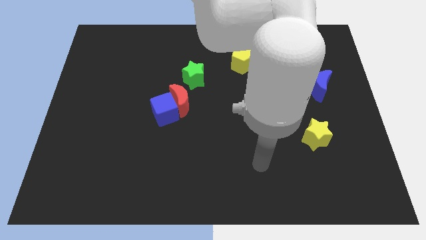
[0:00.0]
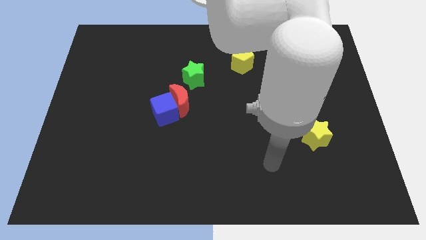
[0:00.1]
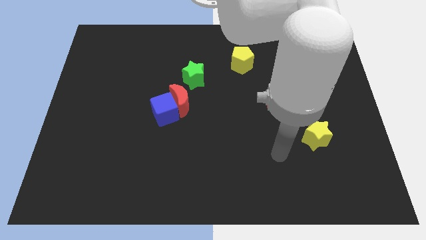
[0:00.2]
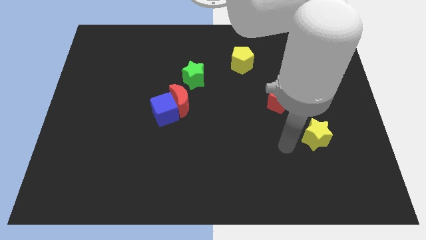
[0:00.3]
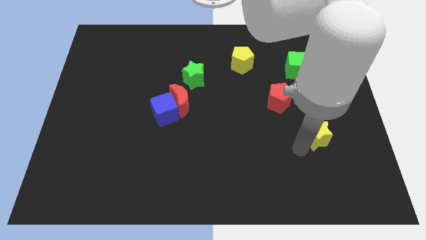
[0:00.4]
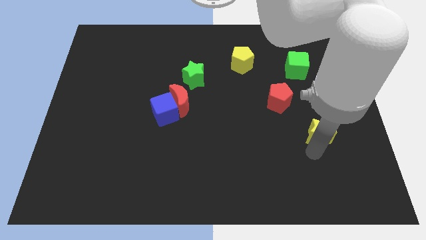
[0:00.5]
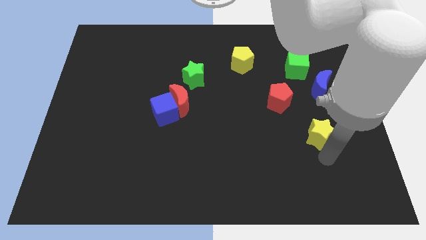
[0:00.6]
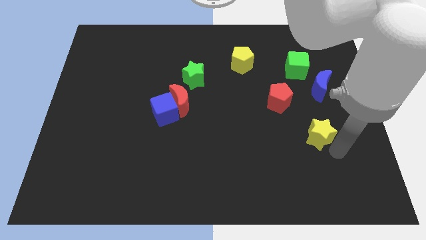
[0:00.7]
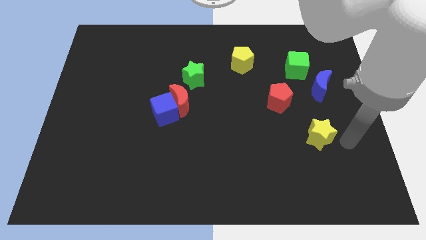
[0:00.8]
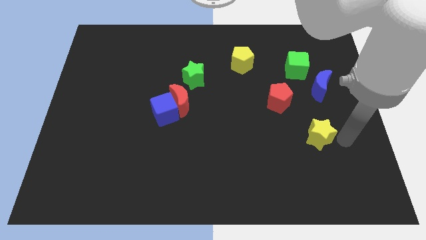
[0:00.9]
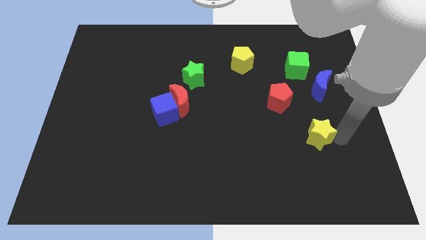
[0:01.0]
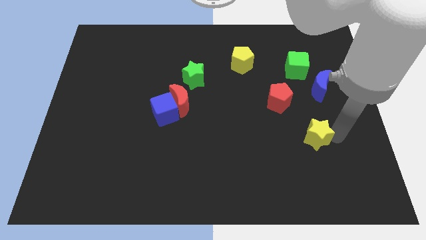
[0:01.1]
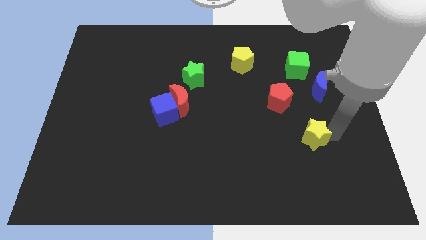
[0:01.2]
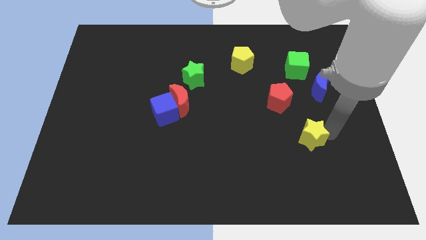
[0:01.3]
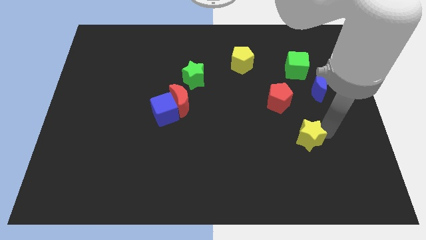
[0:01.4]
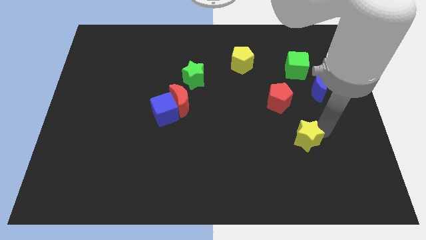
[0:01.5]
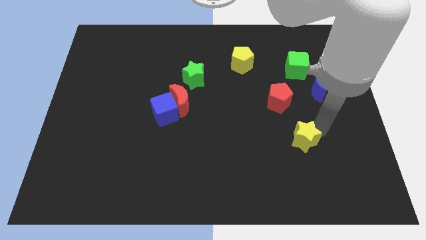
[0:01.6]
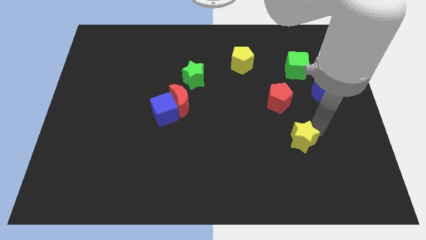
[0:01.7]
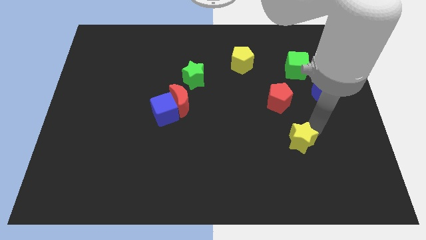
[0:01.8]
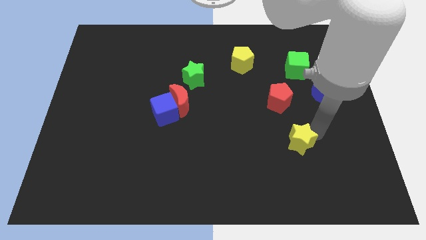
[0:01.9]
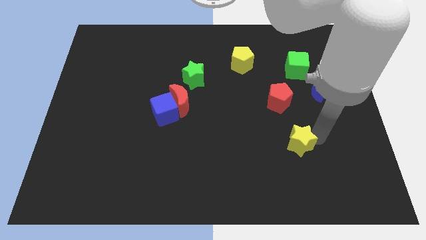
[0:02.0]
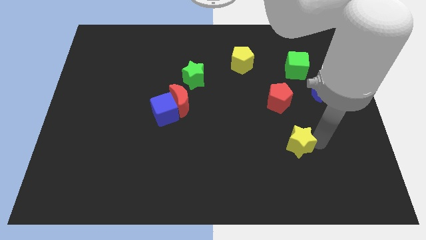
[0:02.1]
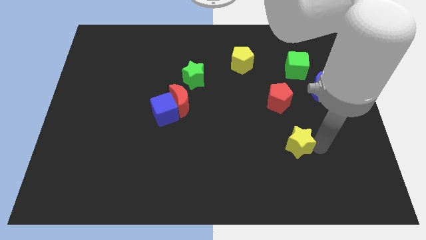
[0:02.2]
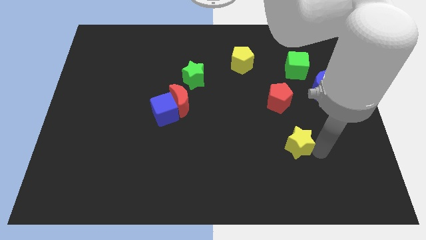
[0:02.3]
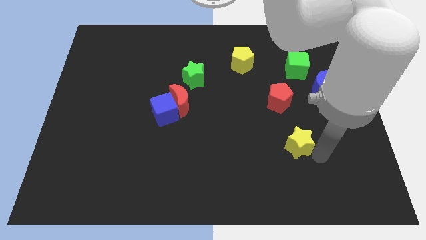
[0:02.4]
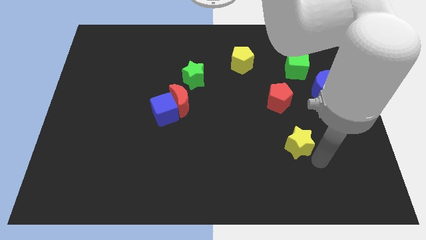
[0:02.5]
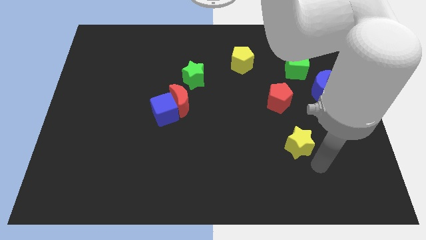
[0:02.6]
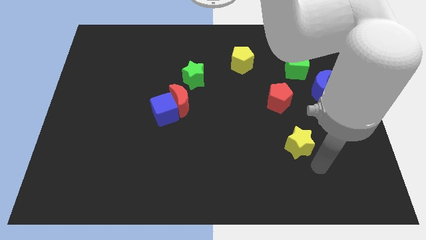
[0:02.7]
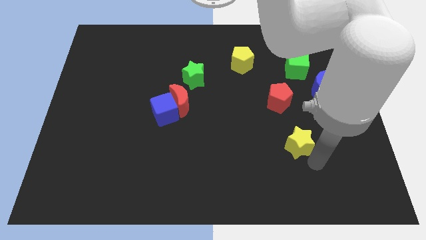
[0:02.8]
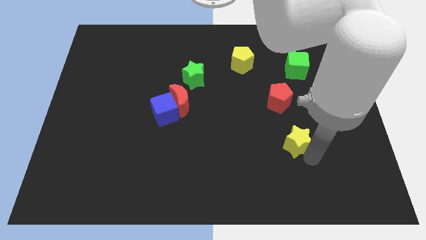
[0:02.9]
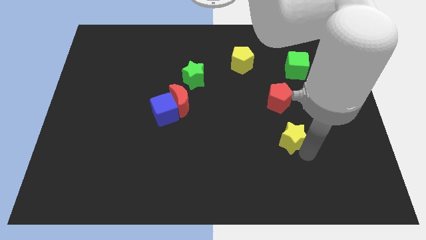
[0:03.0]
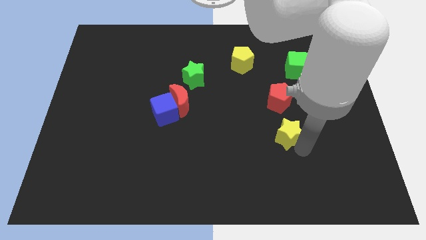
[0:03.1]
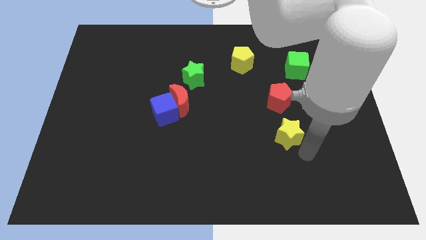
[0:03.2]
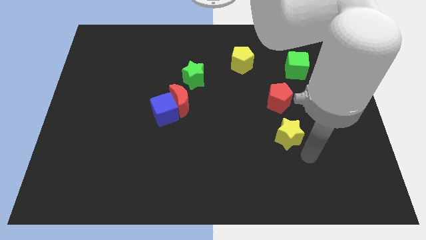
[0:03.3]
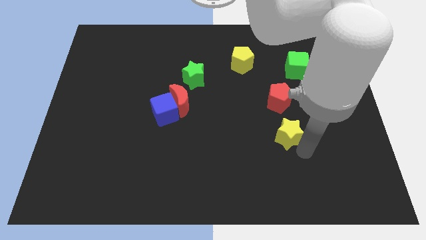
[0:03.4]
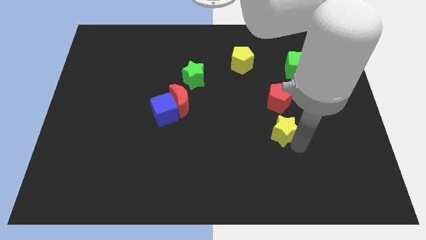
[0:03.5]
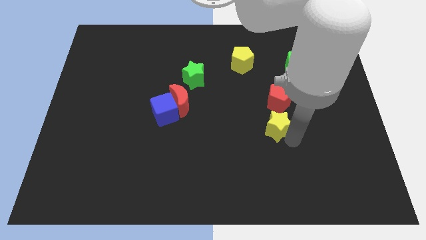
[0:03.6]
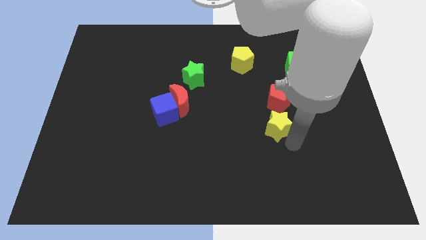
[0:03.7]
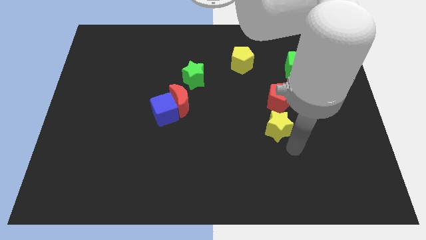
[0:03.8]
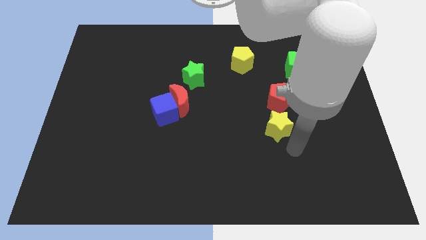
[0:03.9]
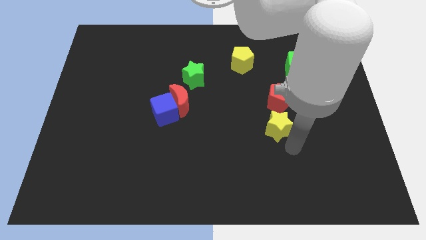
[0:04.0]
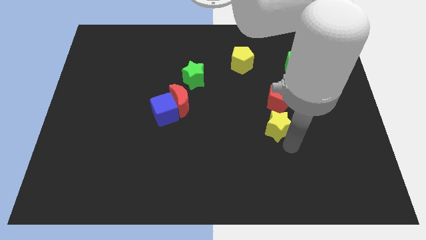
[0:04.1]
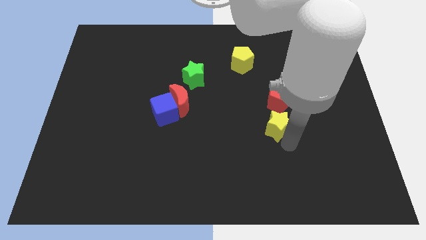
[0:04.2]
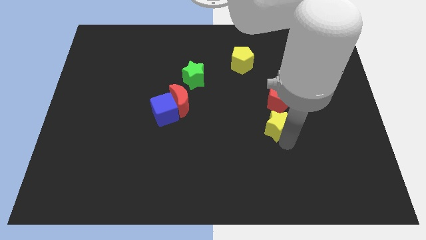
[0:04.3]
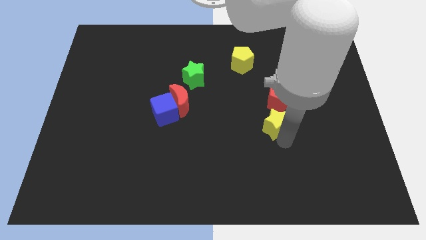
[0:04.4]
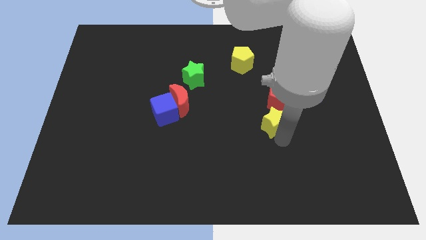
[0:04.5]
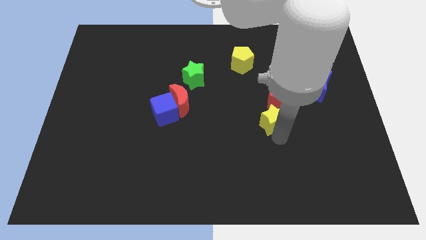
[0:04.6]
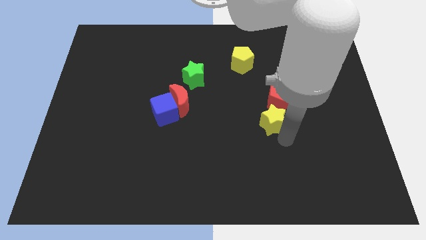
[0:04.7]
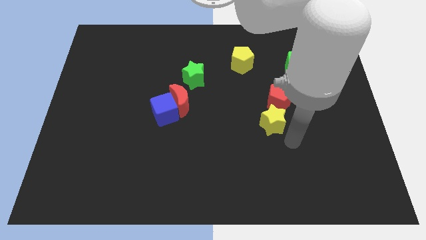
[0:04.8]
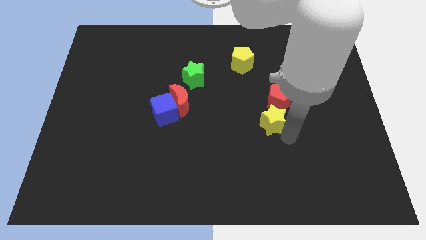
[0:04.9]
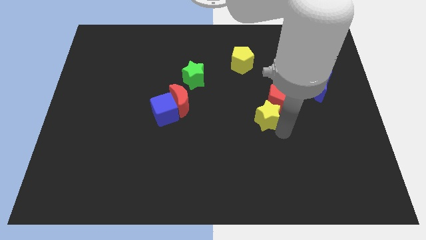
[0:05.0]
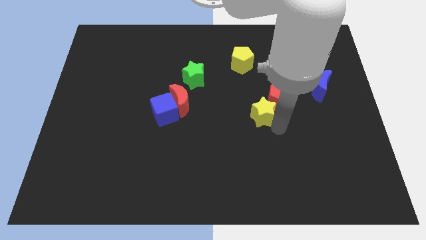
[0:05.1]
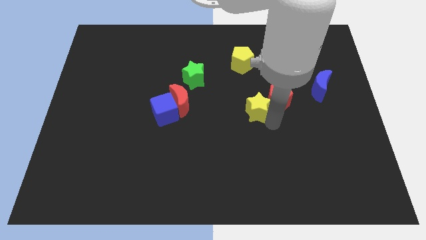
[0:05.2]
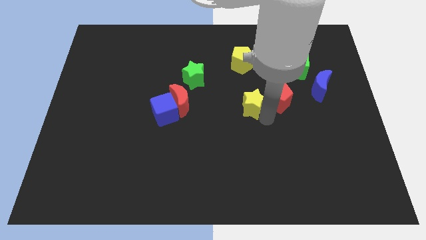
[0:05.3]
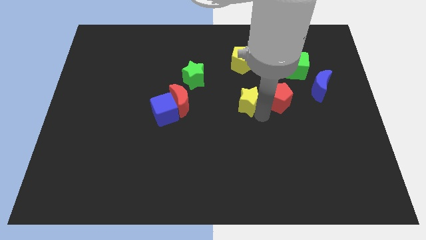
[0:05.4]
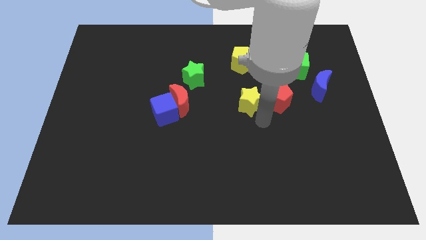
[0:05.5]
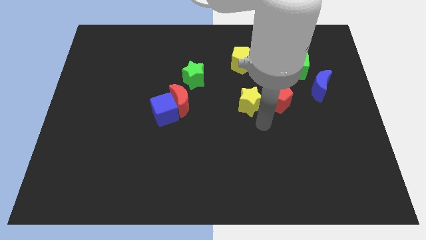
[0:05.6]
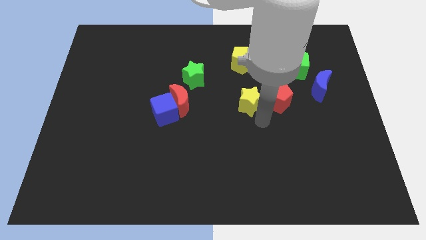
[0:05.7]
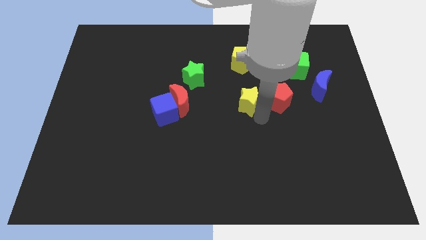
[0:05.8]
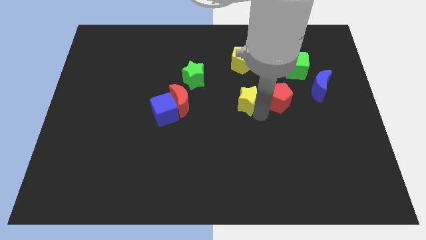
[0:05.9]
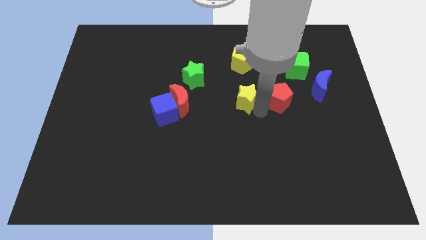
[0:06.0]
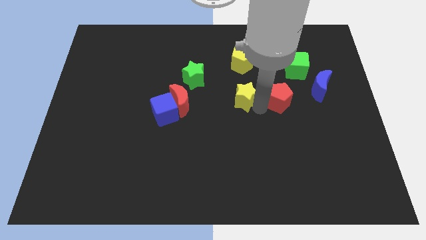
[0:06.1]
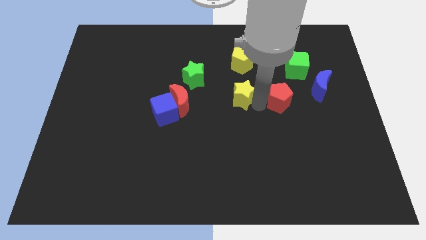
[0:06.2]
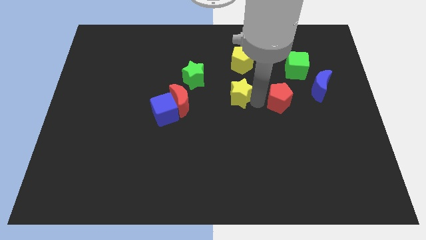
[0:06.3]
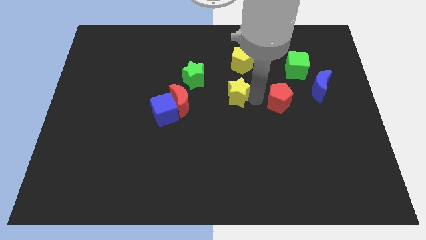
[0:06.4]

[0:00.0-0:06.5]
move the yellow star diagonally up and to the left

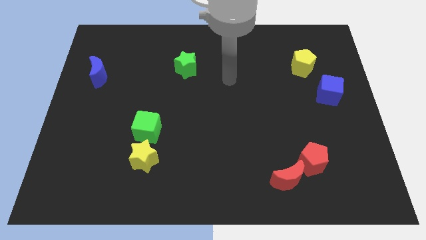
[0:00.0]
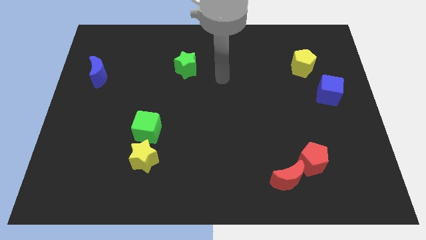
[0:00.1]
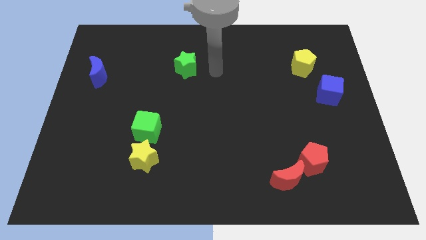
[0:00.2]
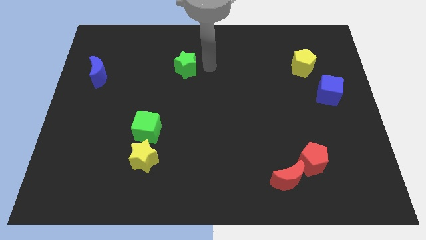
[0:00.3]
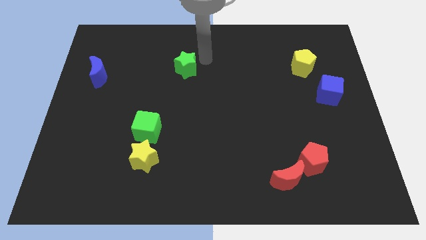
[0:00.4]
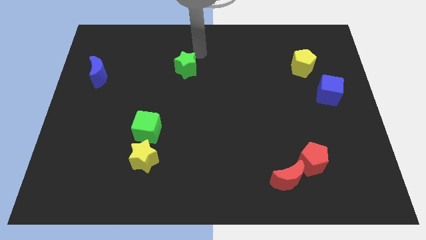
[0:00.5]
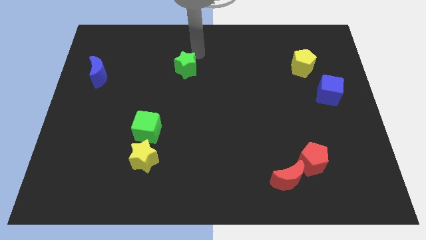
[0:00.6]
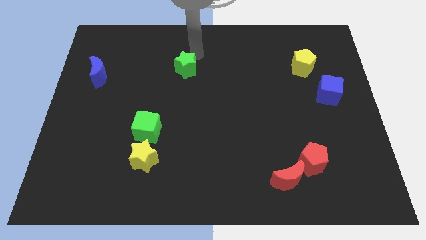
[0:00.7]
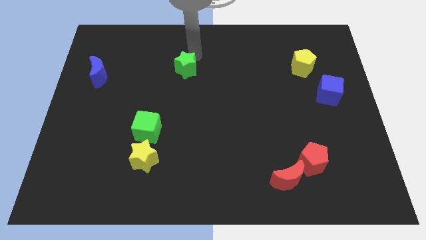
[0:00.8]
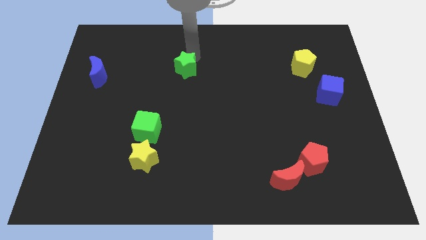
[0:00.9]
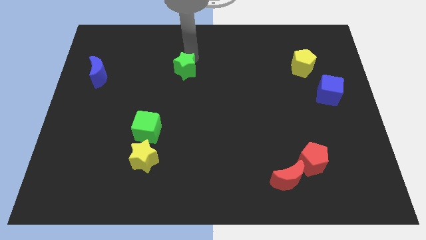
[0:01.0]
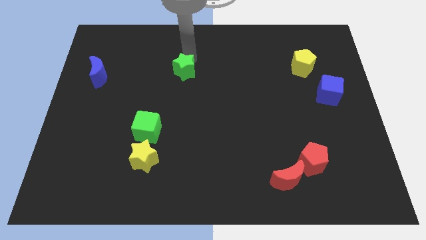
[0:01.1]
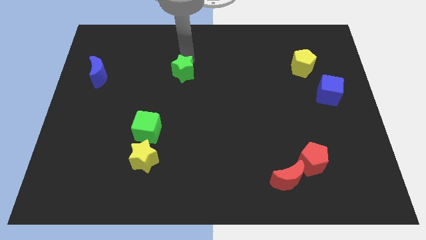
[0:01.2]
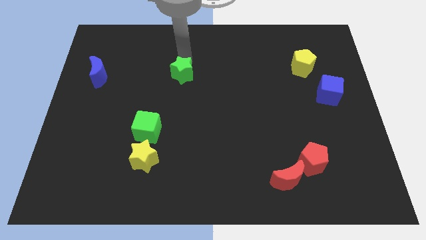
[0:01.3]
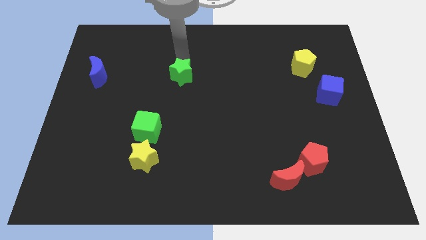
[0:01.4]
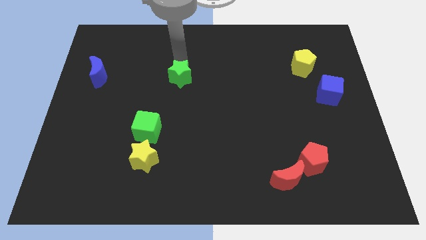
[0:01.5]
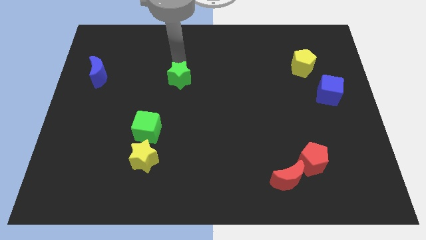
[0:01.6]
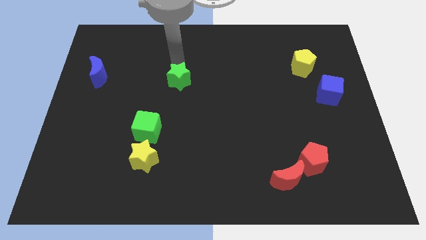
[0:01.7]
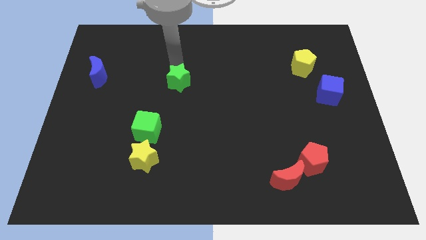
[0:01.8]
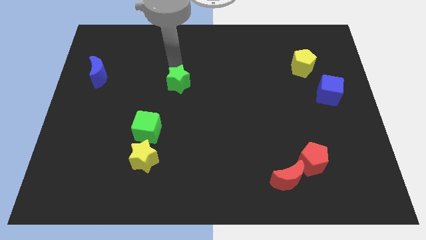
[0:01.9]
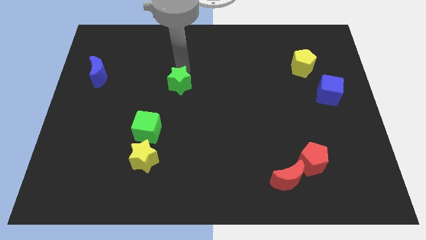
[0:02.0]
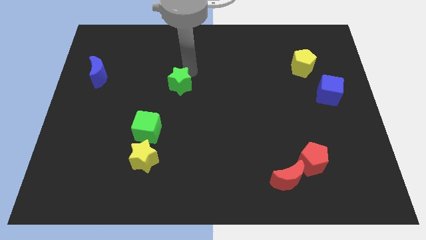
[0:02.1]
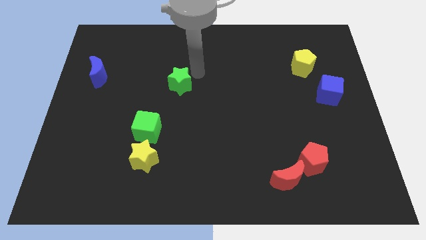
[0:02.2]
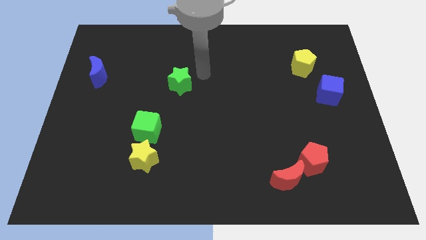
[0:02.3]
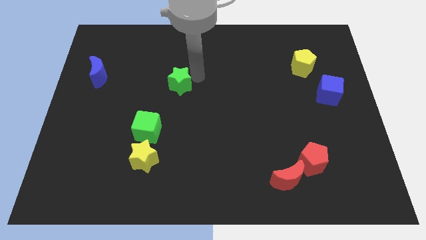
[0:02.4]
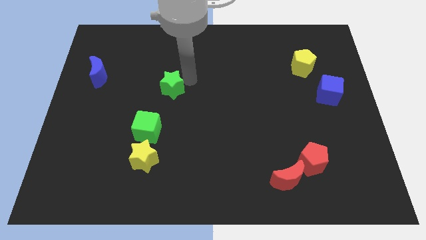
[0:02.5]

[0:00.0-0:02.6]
push the green star down and left diagonally slightly
